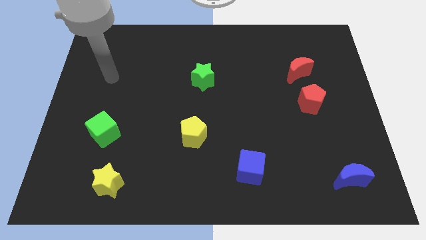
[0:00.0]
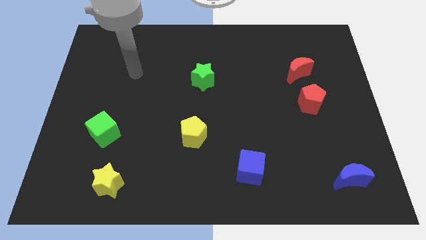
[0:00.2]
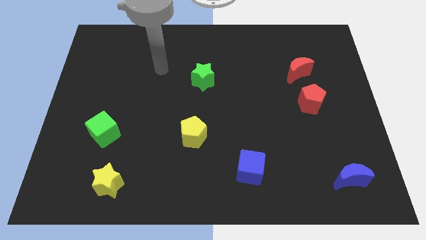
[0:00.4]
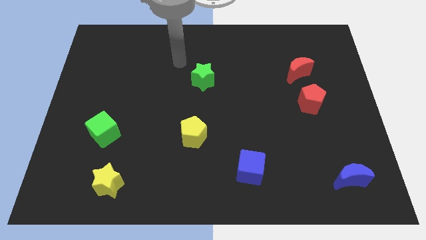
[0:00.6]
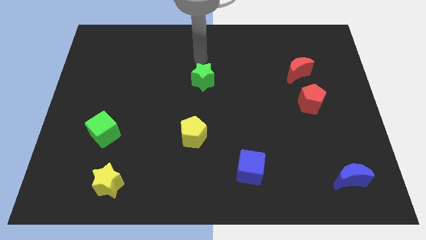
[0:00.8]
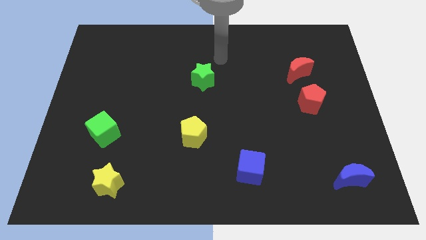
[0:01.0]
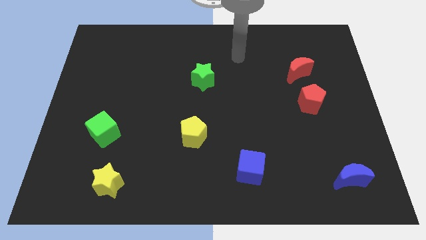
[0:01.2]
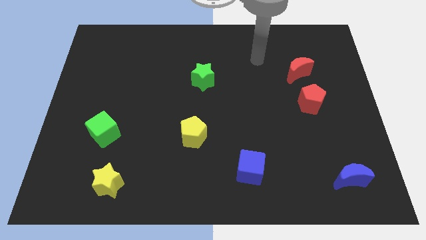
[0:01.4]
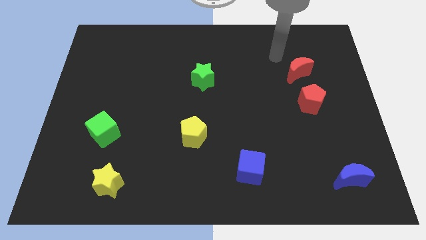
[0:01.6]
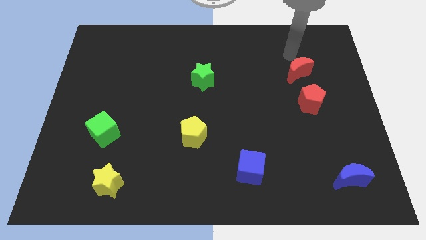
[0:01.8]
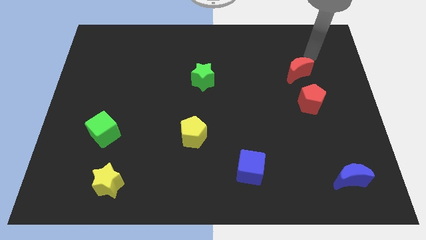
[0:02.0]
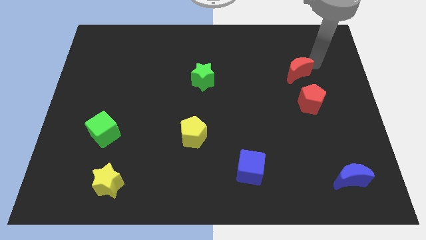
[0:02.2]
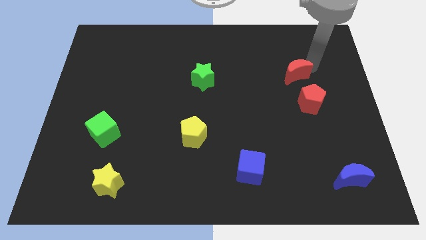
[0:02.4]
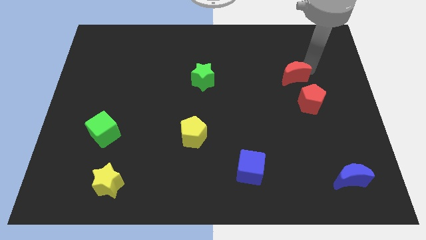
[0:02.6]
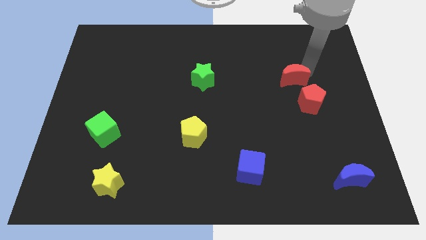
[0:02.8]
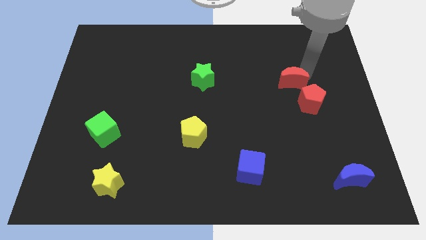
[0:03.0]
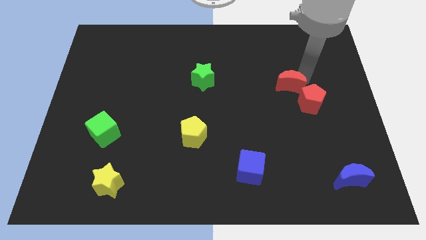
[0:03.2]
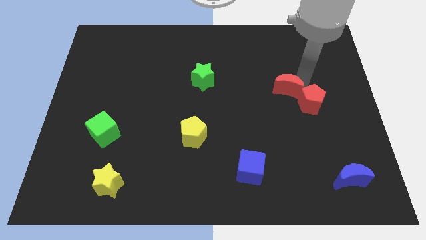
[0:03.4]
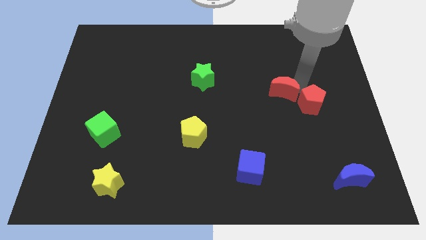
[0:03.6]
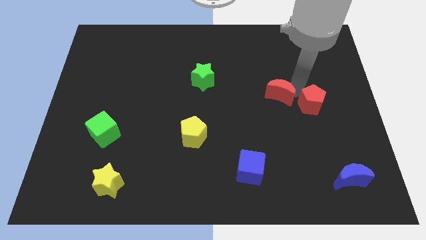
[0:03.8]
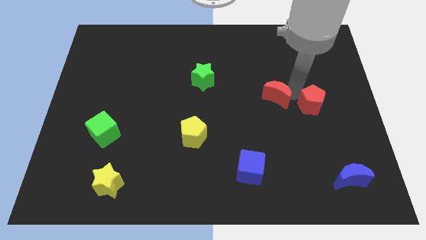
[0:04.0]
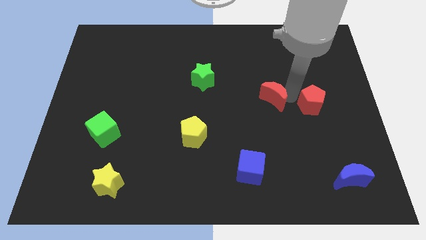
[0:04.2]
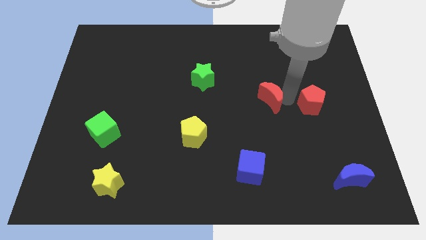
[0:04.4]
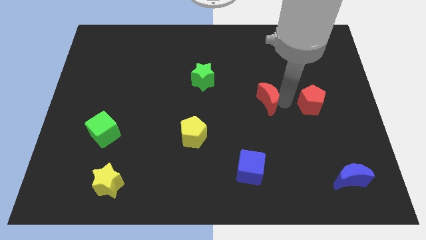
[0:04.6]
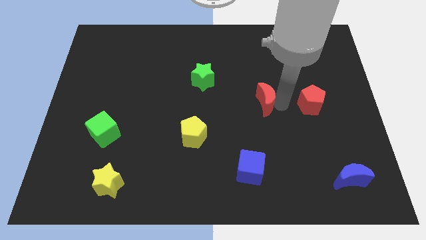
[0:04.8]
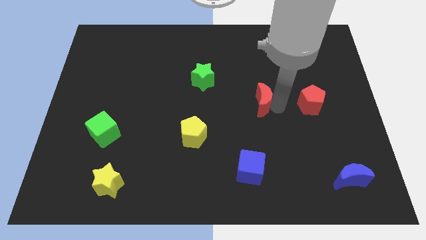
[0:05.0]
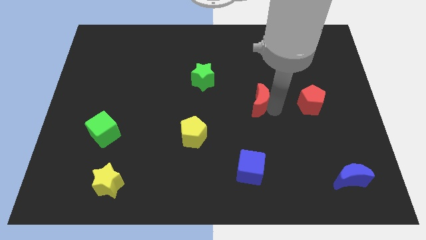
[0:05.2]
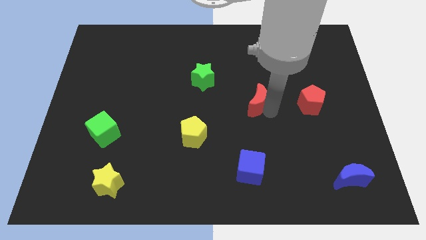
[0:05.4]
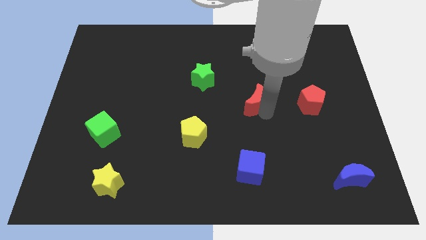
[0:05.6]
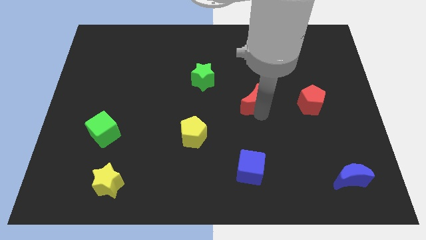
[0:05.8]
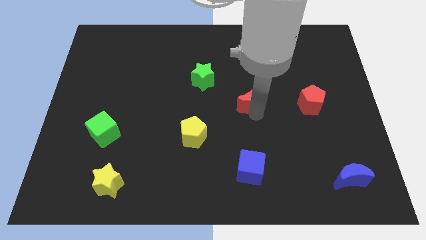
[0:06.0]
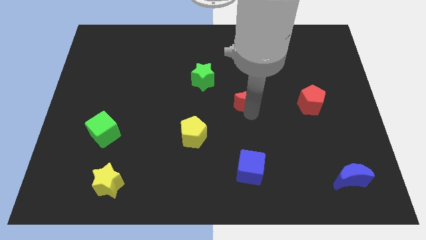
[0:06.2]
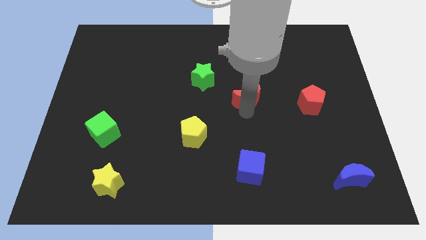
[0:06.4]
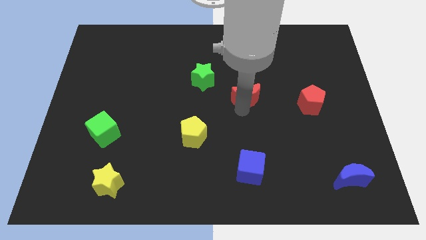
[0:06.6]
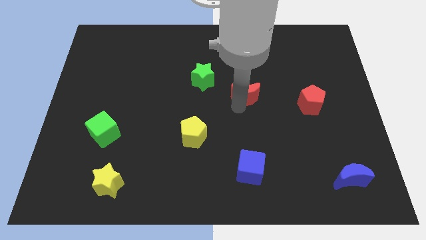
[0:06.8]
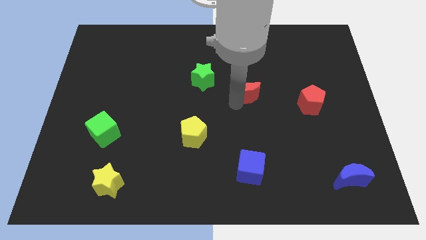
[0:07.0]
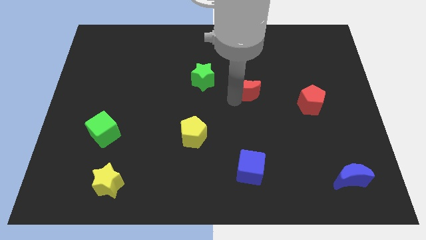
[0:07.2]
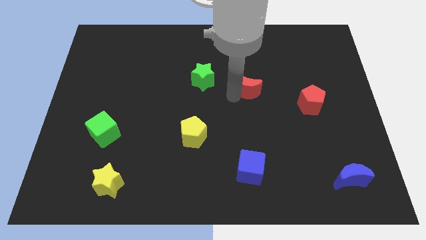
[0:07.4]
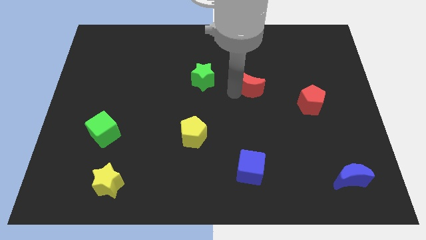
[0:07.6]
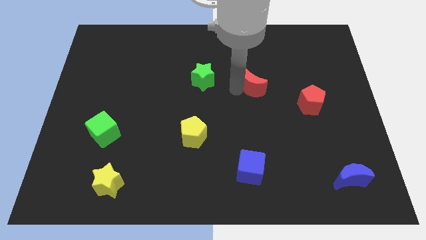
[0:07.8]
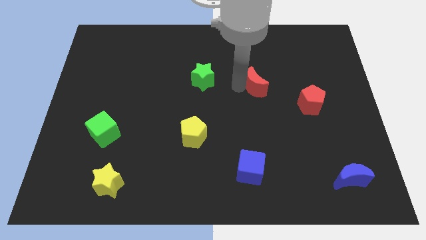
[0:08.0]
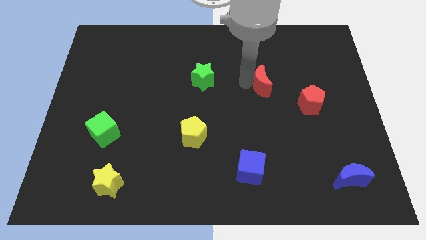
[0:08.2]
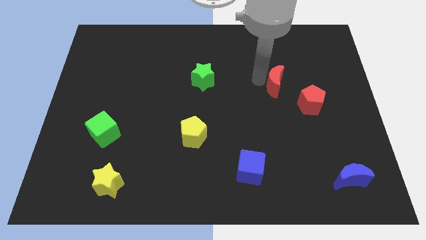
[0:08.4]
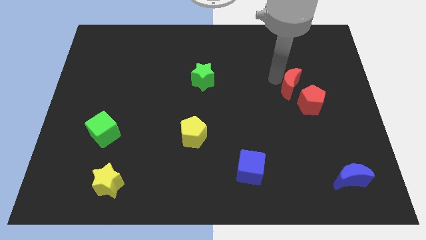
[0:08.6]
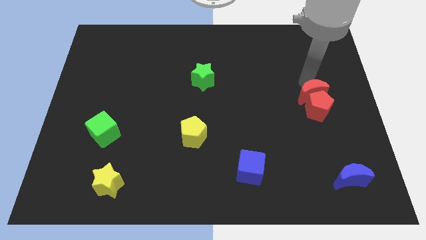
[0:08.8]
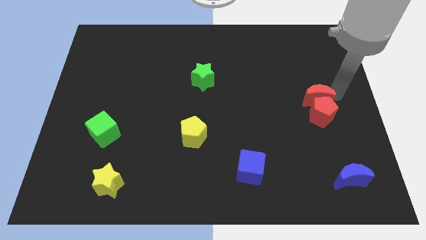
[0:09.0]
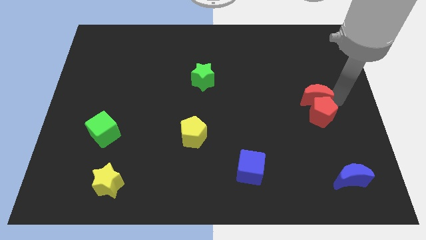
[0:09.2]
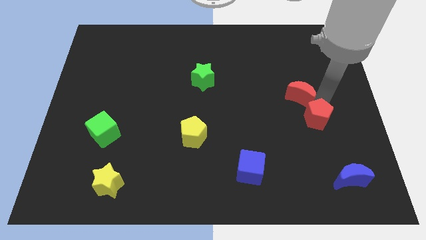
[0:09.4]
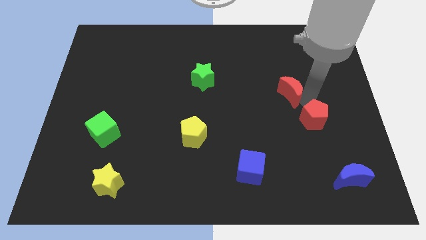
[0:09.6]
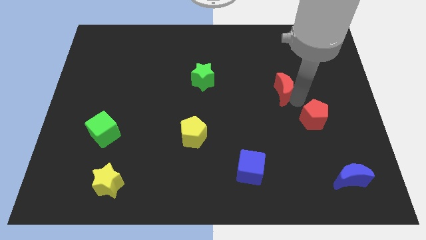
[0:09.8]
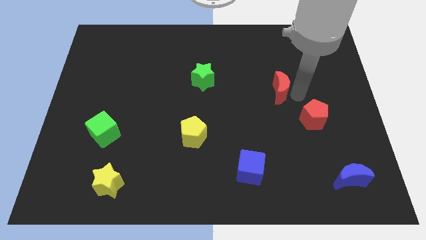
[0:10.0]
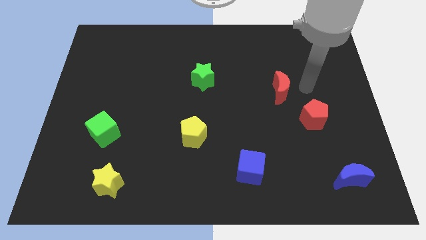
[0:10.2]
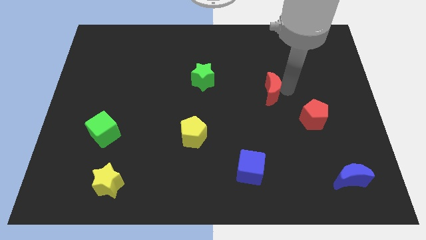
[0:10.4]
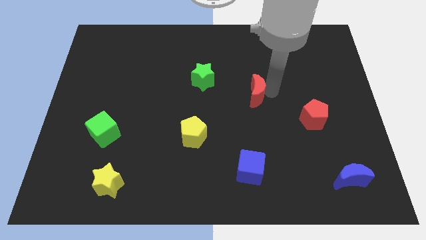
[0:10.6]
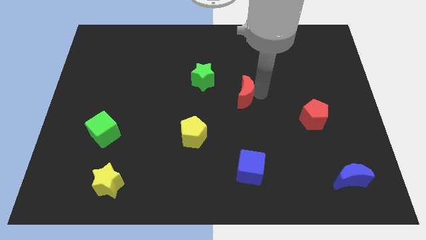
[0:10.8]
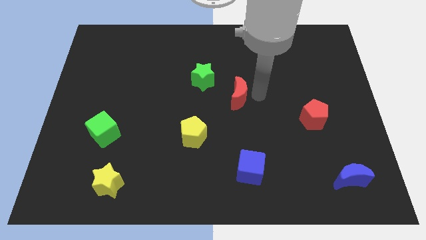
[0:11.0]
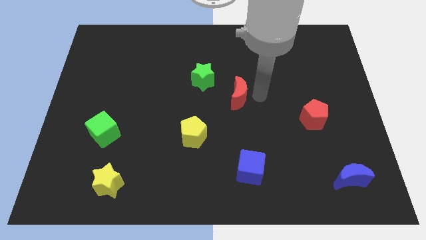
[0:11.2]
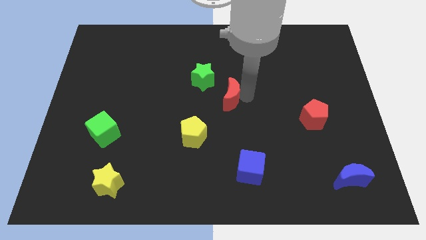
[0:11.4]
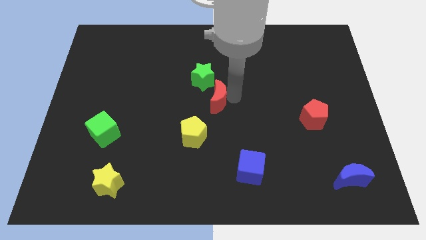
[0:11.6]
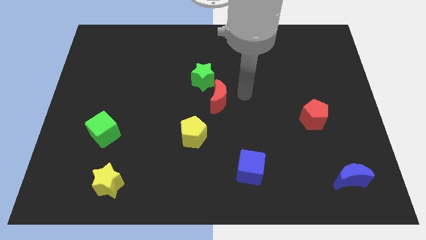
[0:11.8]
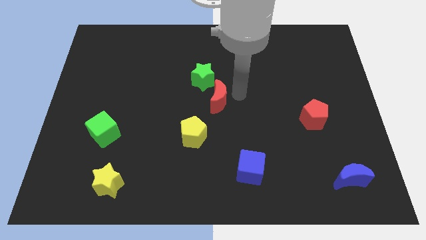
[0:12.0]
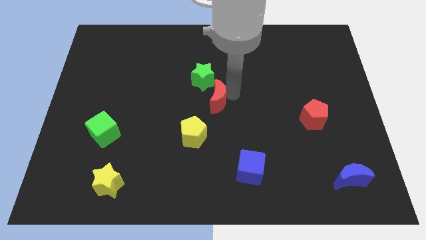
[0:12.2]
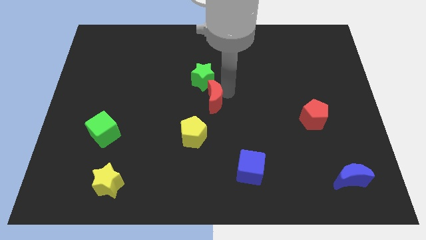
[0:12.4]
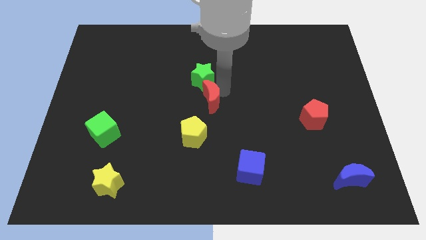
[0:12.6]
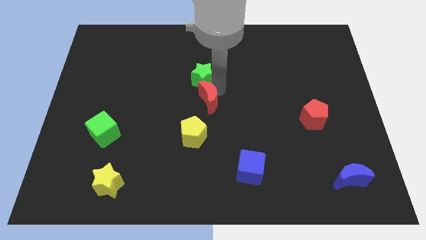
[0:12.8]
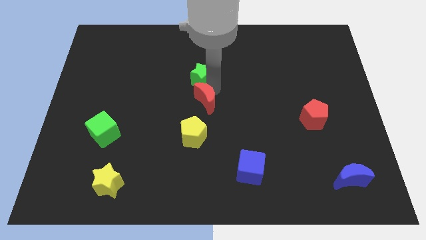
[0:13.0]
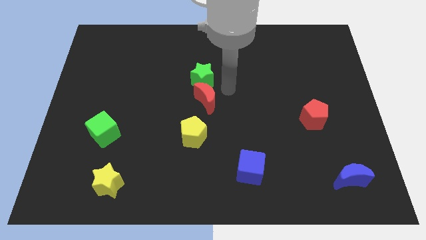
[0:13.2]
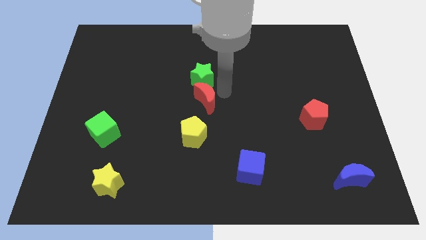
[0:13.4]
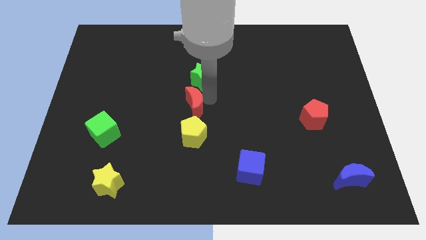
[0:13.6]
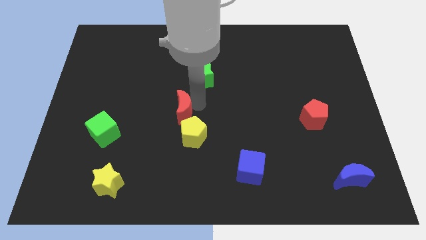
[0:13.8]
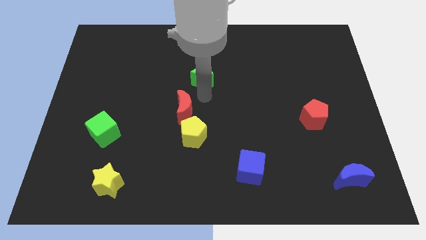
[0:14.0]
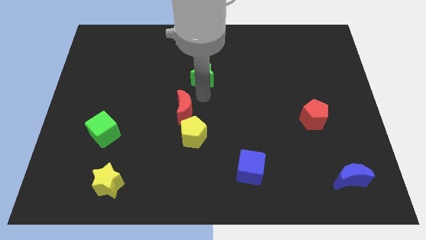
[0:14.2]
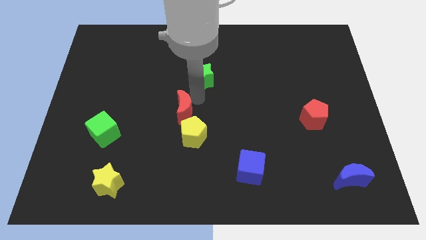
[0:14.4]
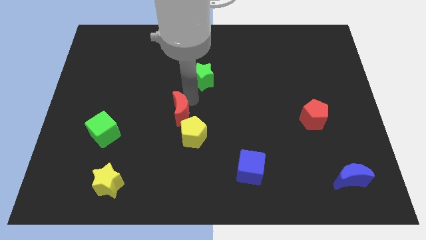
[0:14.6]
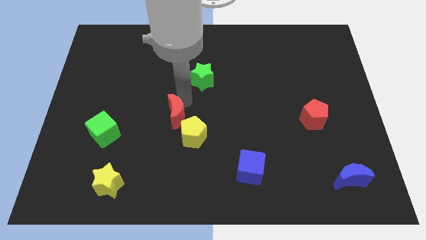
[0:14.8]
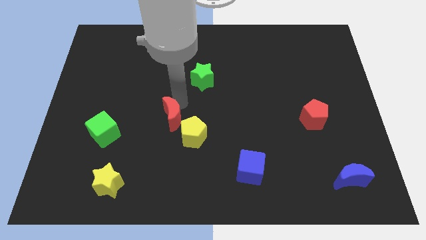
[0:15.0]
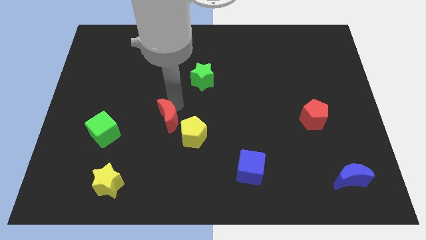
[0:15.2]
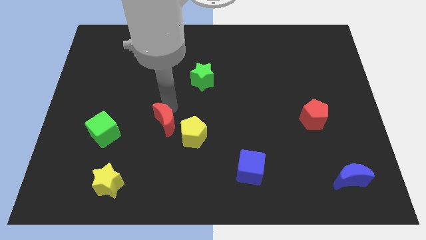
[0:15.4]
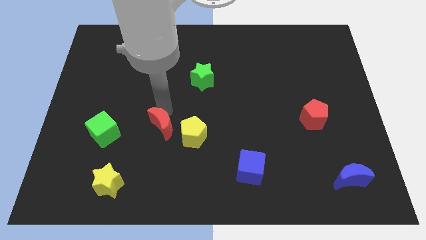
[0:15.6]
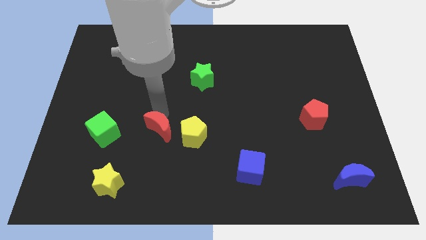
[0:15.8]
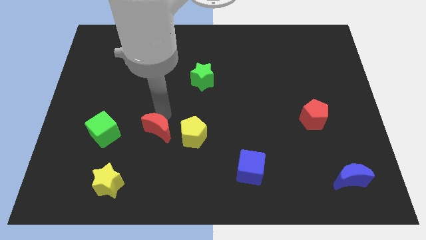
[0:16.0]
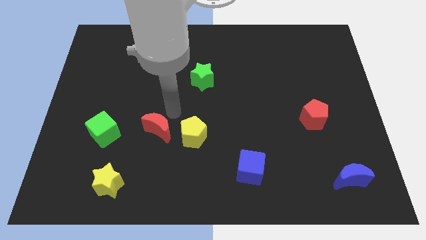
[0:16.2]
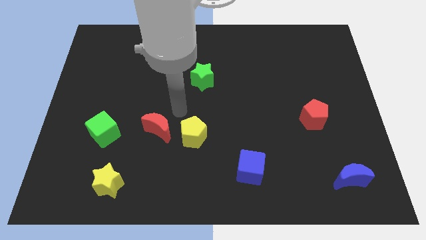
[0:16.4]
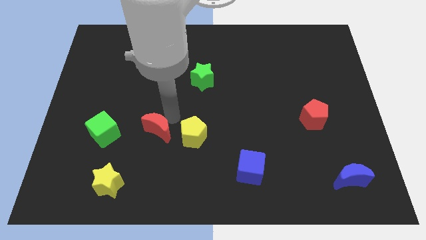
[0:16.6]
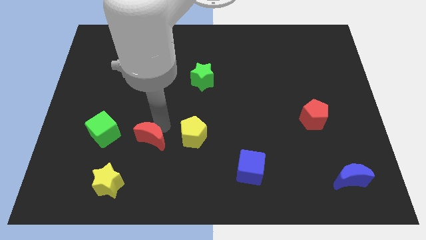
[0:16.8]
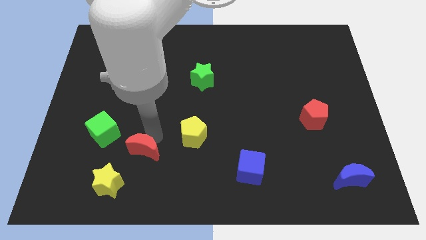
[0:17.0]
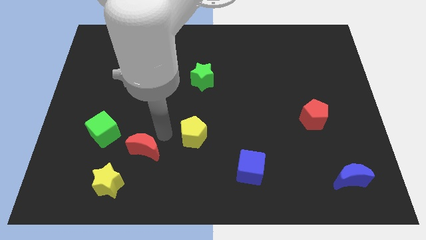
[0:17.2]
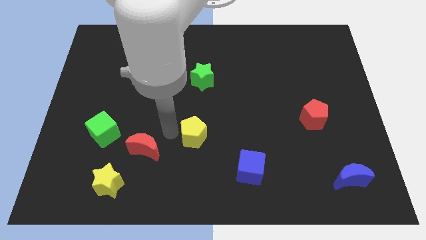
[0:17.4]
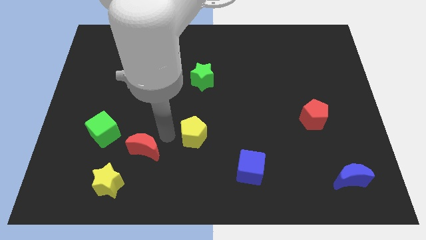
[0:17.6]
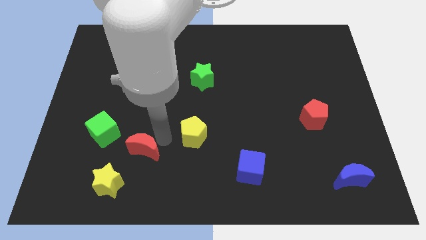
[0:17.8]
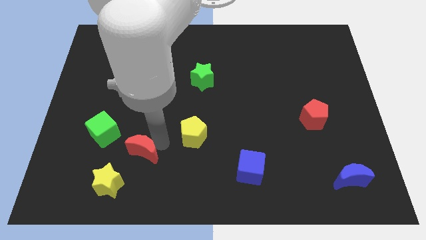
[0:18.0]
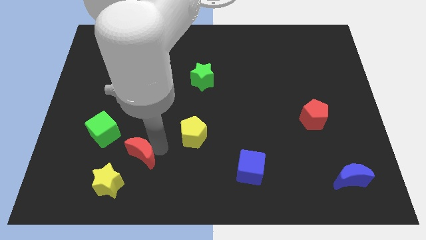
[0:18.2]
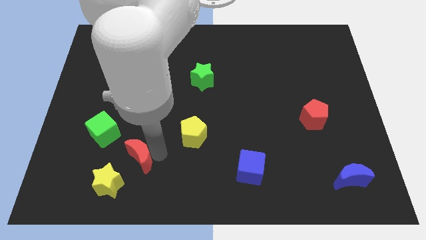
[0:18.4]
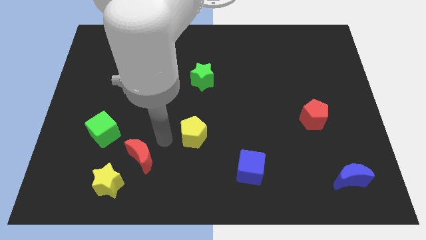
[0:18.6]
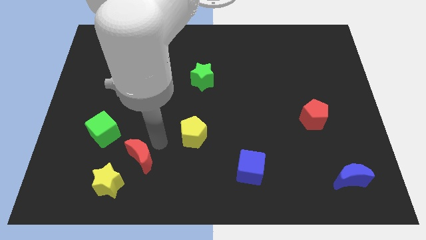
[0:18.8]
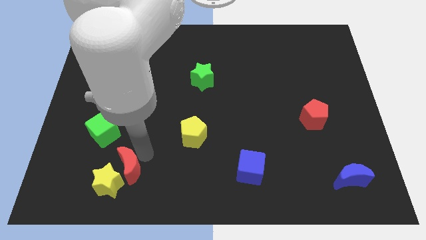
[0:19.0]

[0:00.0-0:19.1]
move the red moon towards the yellow star
